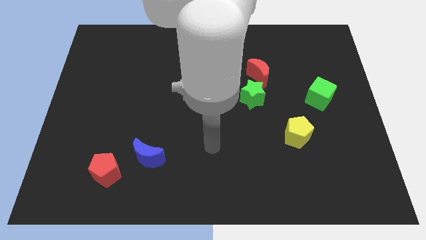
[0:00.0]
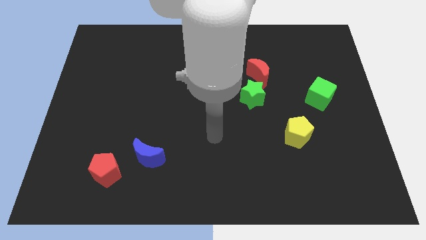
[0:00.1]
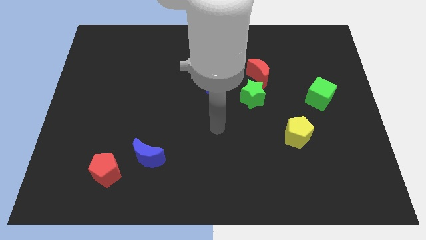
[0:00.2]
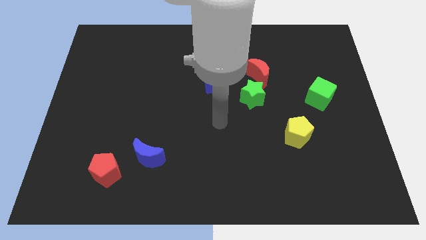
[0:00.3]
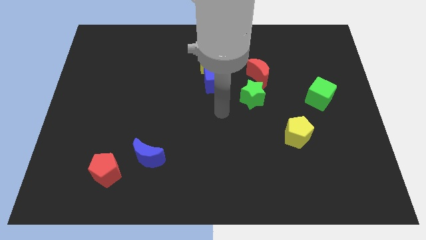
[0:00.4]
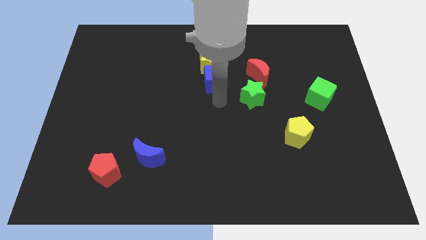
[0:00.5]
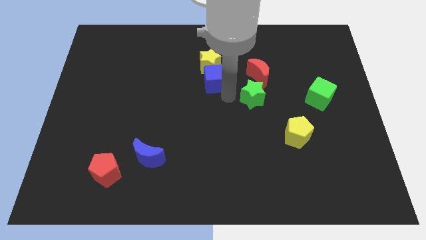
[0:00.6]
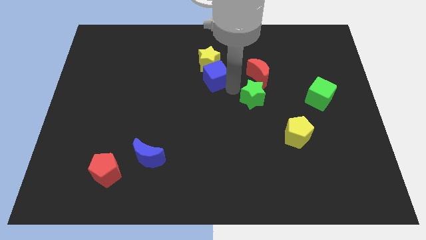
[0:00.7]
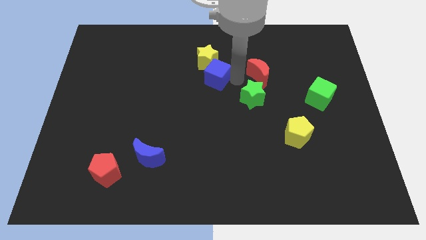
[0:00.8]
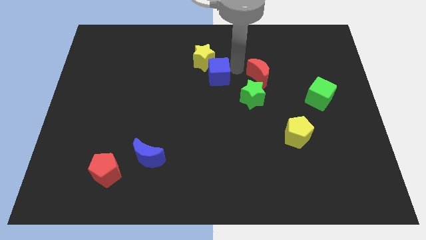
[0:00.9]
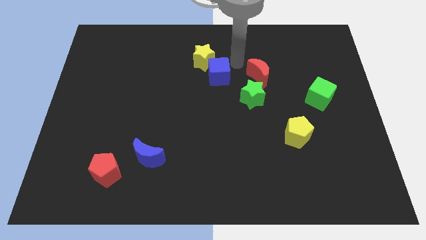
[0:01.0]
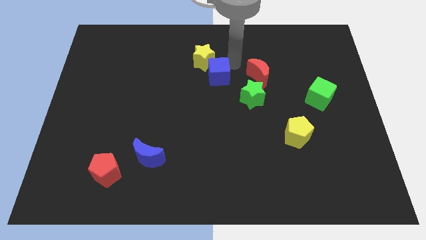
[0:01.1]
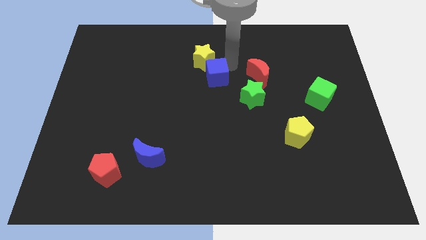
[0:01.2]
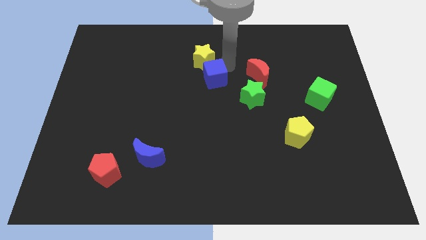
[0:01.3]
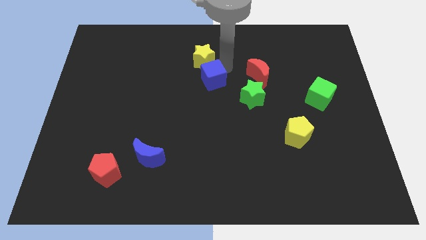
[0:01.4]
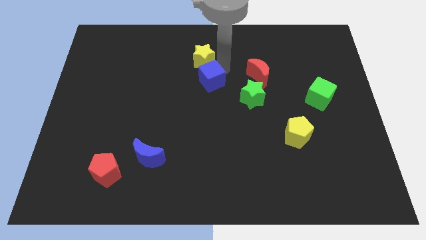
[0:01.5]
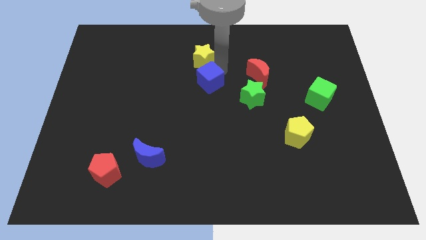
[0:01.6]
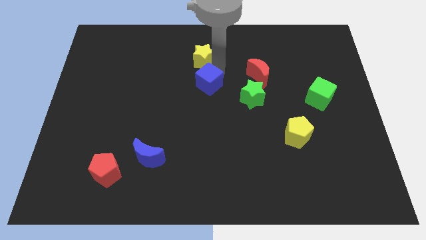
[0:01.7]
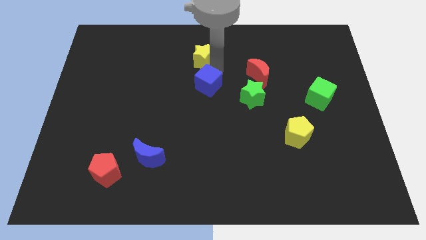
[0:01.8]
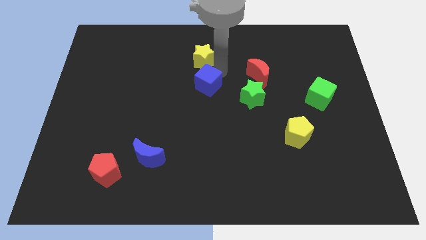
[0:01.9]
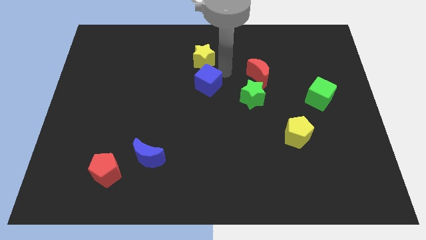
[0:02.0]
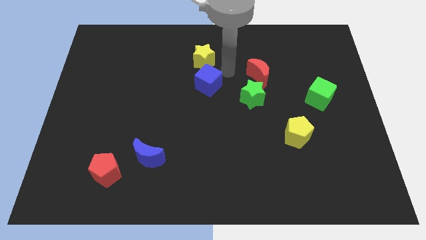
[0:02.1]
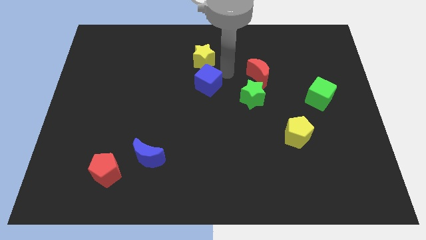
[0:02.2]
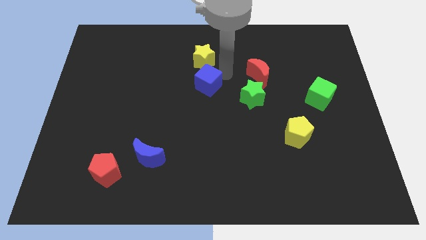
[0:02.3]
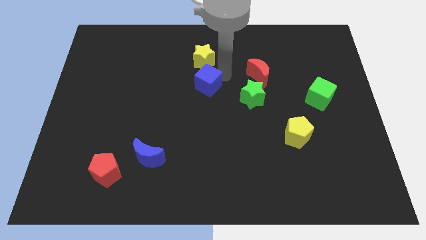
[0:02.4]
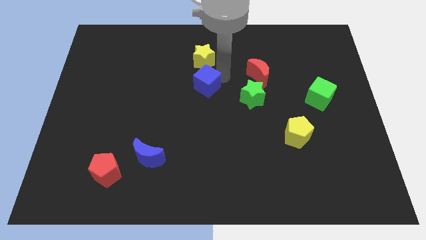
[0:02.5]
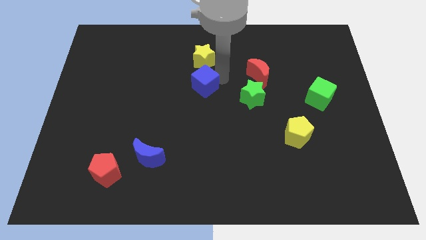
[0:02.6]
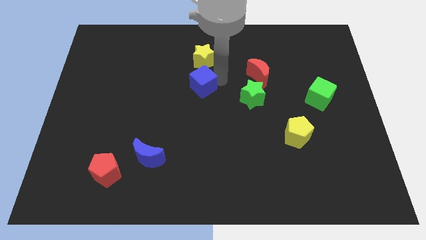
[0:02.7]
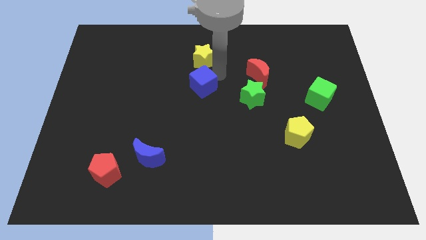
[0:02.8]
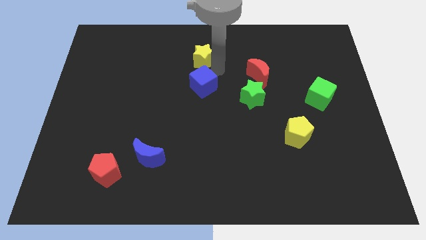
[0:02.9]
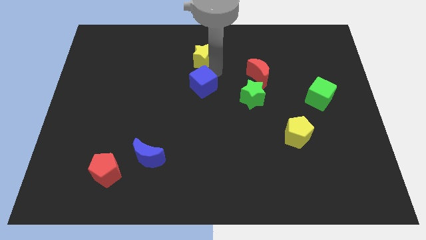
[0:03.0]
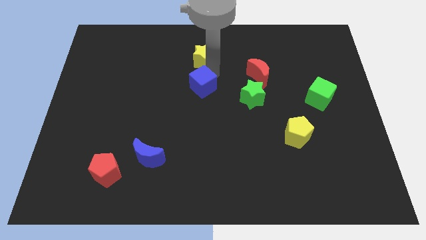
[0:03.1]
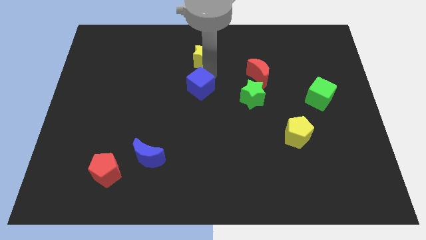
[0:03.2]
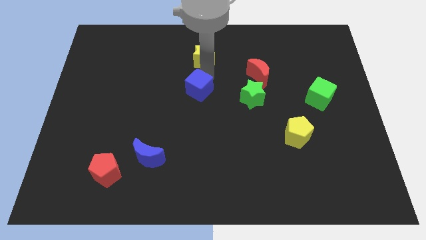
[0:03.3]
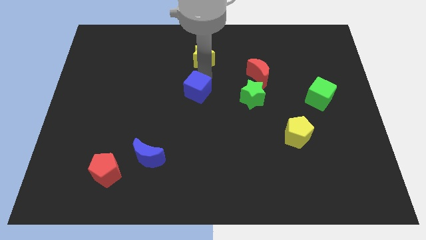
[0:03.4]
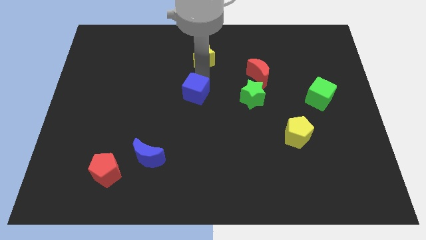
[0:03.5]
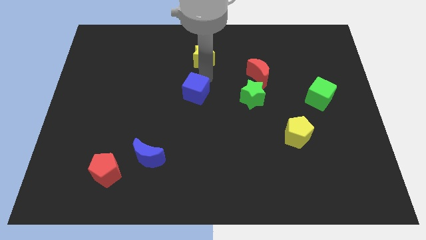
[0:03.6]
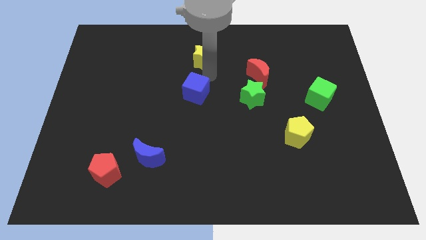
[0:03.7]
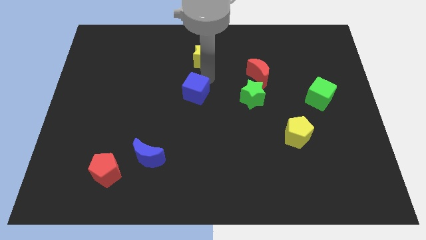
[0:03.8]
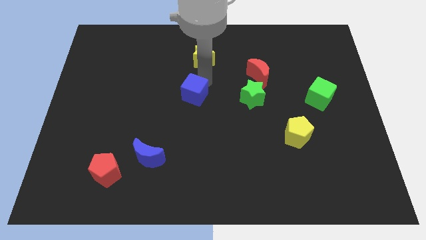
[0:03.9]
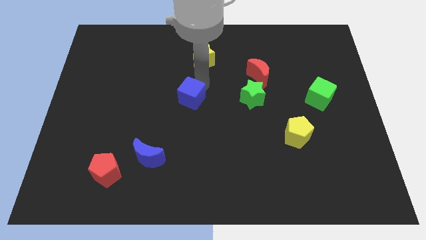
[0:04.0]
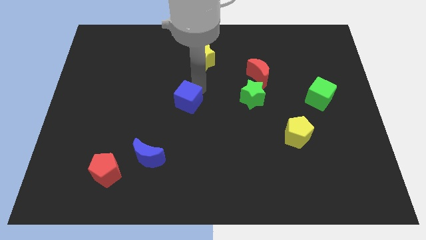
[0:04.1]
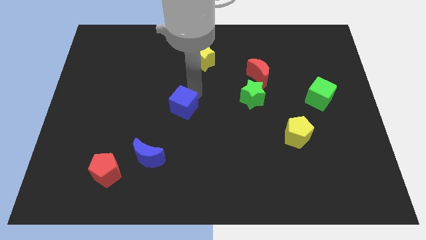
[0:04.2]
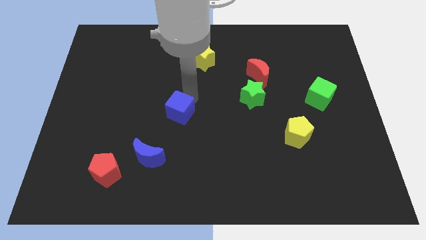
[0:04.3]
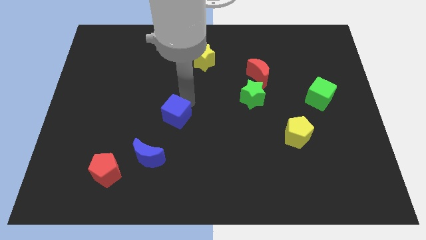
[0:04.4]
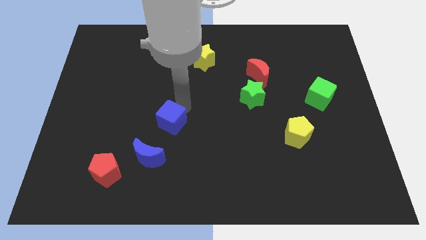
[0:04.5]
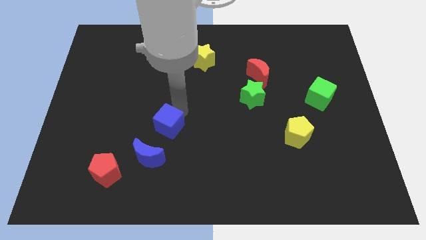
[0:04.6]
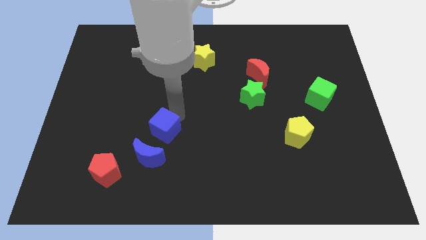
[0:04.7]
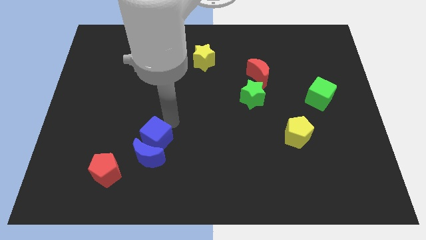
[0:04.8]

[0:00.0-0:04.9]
move the blue cube towards the blue moon

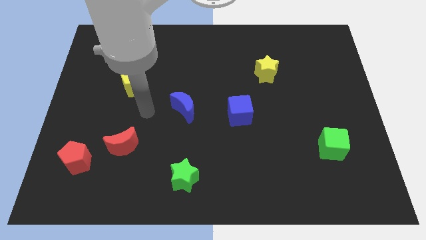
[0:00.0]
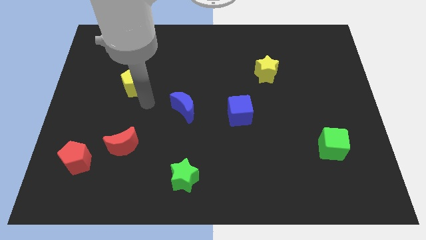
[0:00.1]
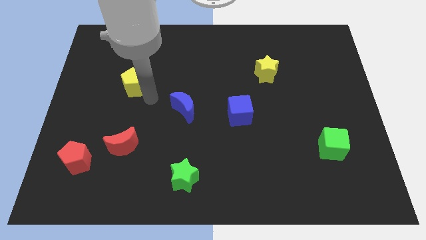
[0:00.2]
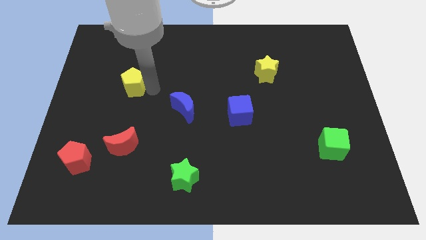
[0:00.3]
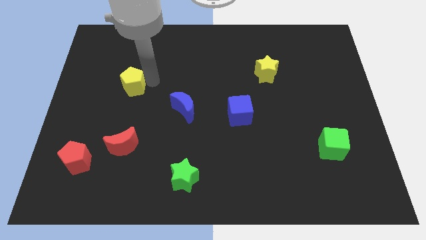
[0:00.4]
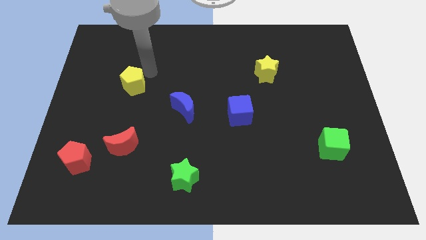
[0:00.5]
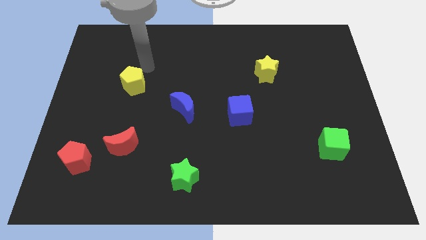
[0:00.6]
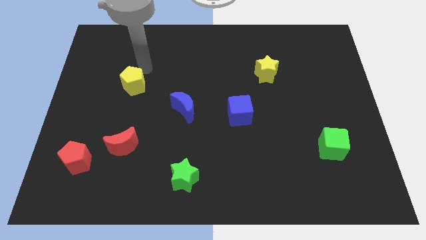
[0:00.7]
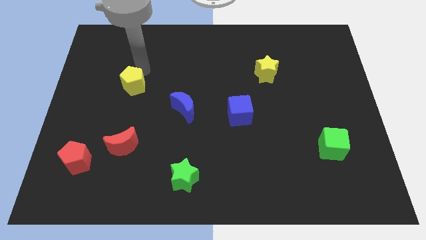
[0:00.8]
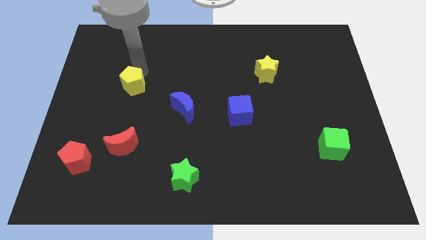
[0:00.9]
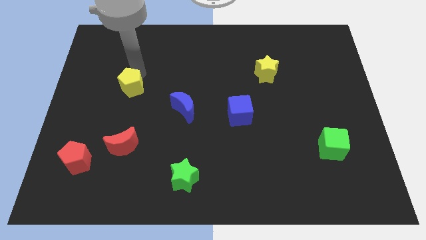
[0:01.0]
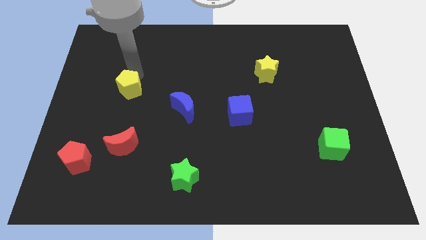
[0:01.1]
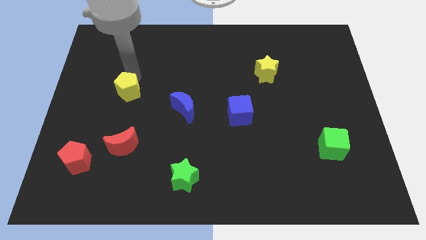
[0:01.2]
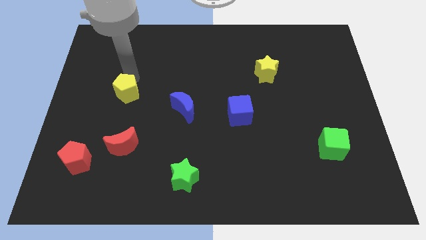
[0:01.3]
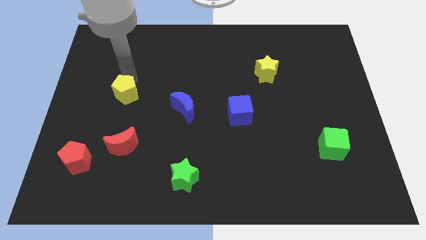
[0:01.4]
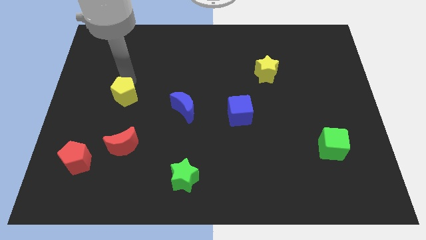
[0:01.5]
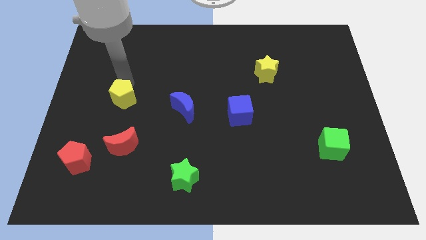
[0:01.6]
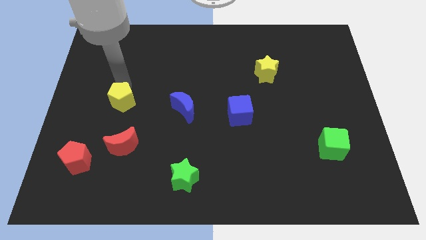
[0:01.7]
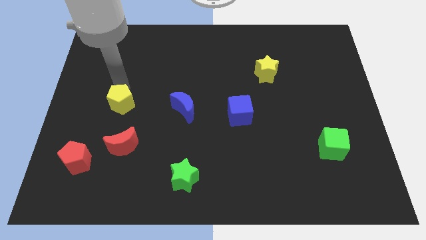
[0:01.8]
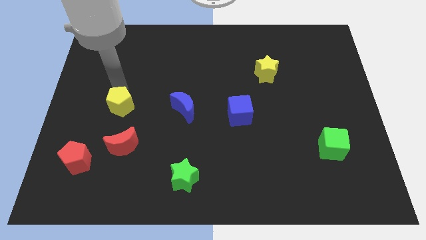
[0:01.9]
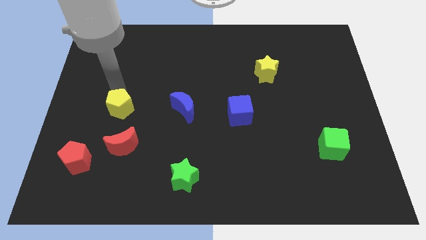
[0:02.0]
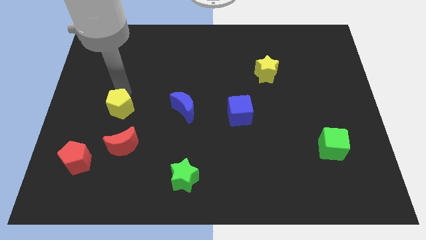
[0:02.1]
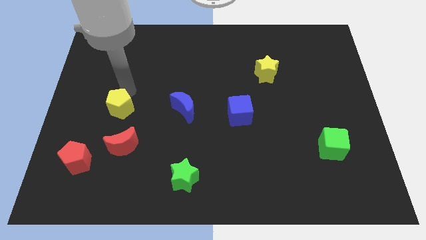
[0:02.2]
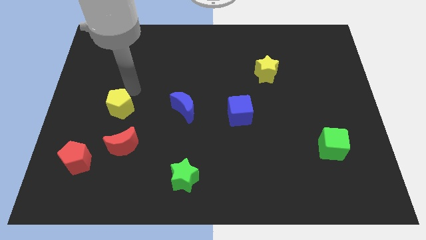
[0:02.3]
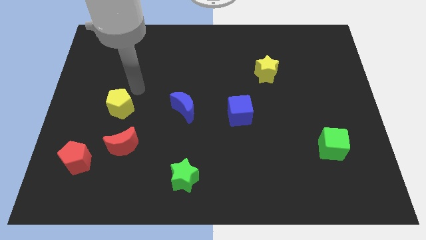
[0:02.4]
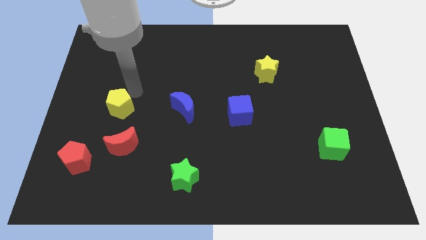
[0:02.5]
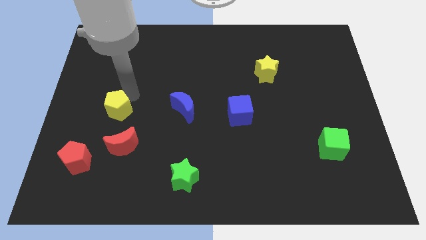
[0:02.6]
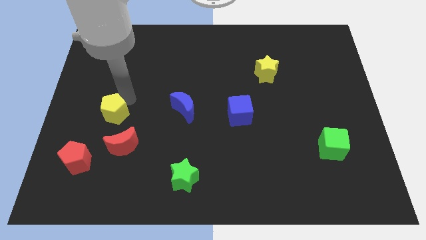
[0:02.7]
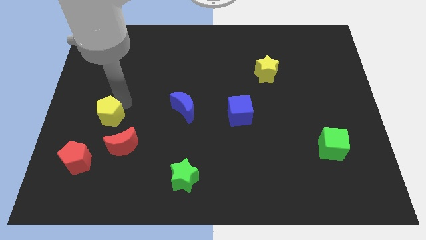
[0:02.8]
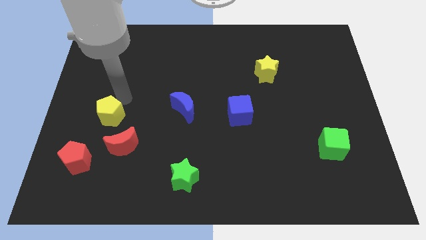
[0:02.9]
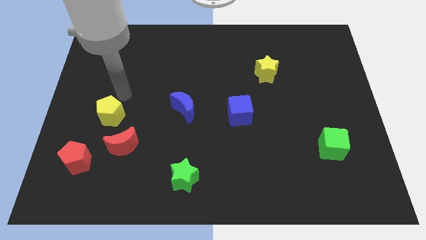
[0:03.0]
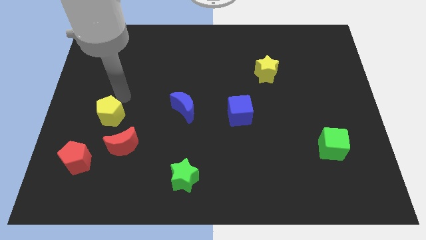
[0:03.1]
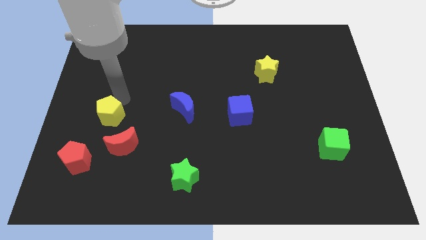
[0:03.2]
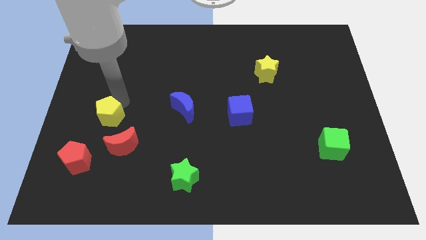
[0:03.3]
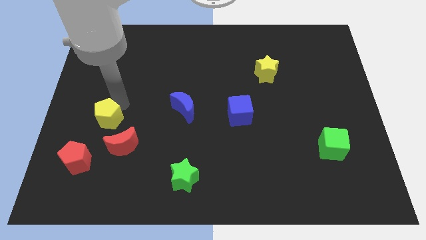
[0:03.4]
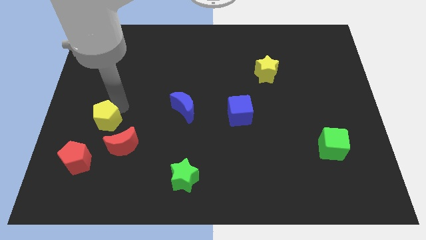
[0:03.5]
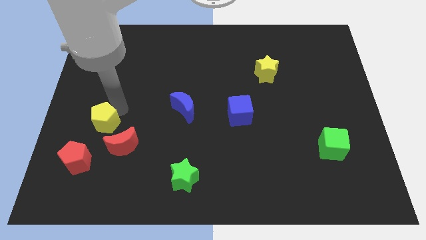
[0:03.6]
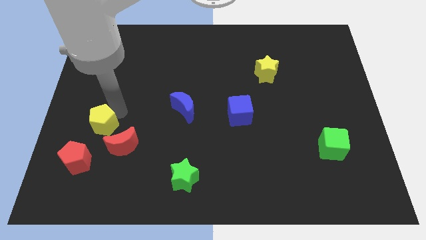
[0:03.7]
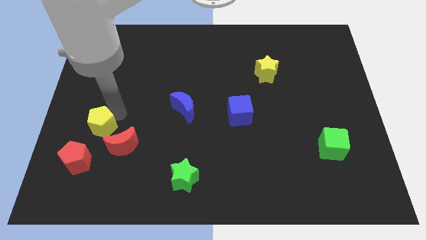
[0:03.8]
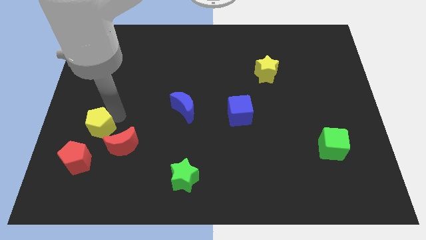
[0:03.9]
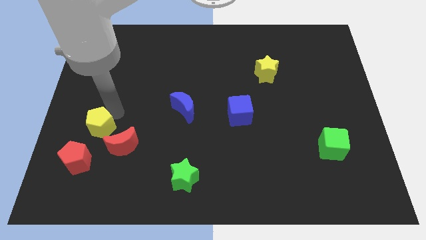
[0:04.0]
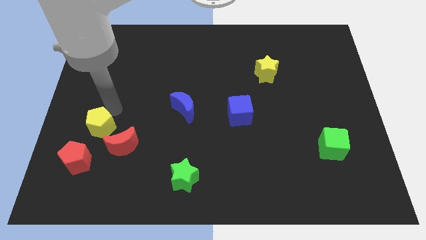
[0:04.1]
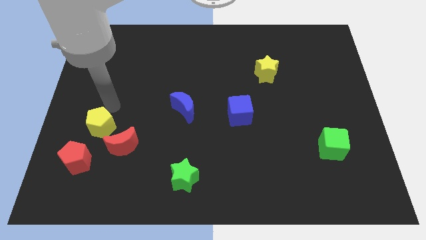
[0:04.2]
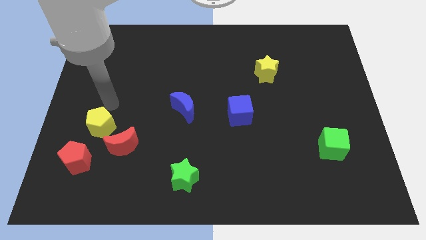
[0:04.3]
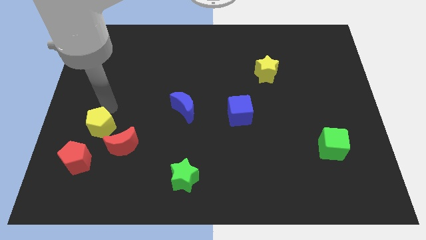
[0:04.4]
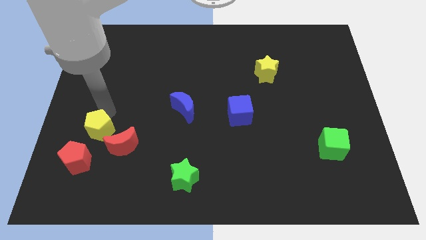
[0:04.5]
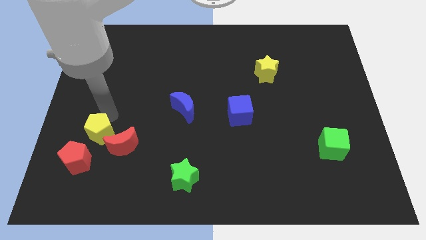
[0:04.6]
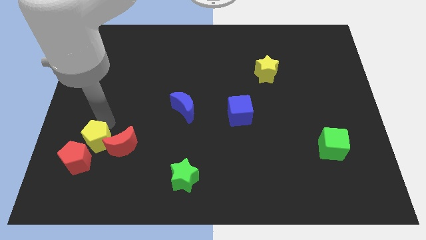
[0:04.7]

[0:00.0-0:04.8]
push the yellow pentagon to the red pentagon
